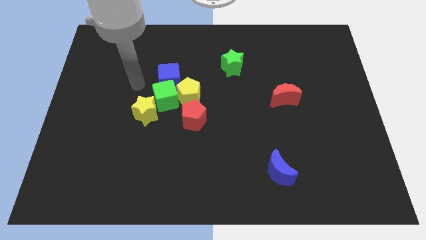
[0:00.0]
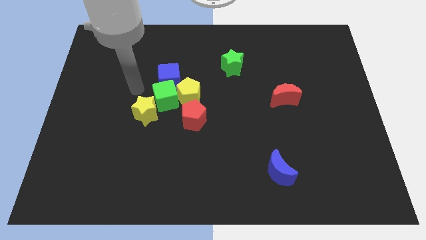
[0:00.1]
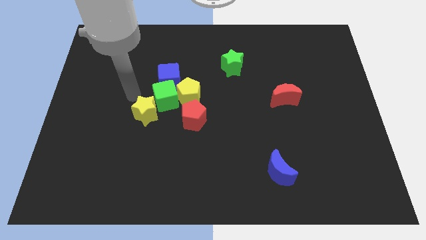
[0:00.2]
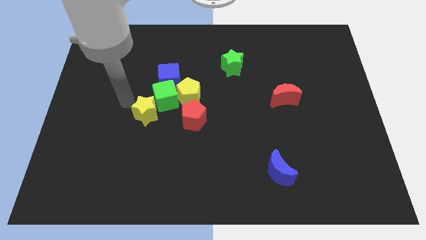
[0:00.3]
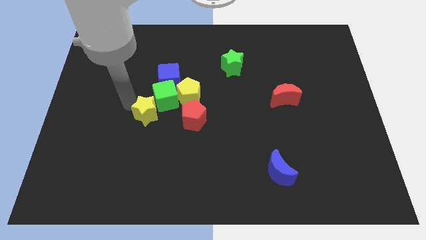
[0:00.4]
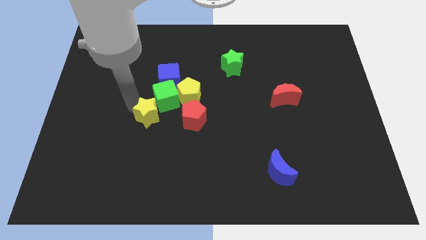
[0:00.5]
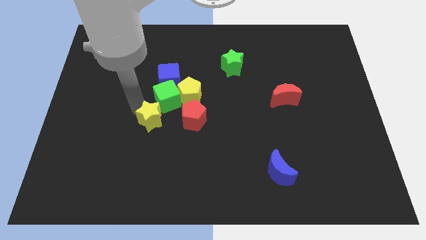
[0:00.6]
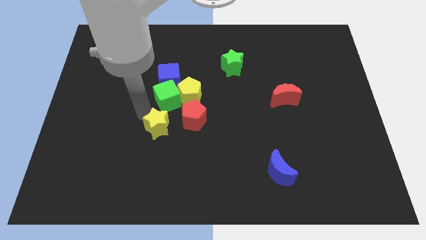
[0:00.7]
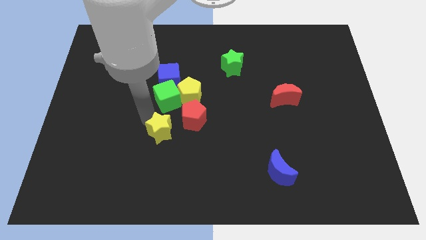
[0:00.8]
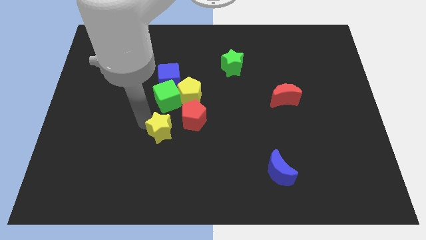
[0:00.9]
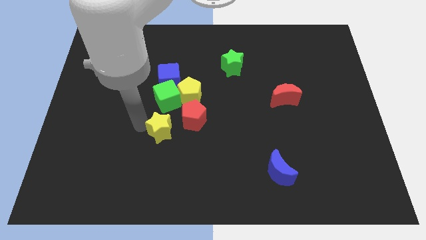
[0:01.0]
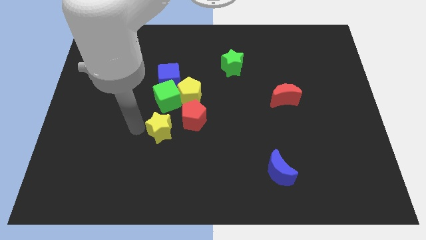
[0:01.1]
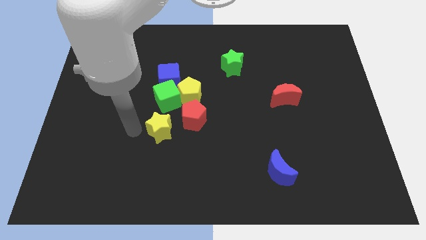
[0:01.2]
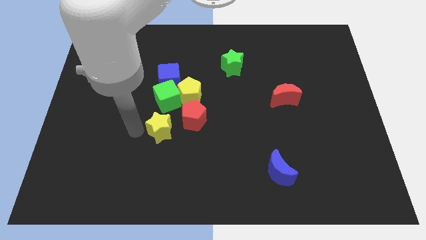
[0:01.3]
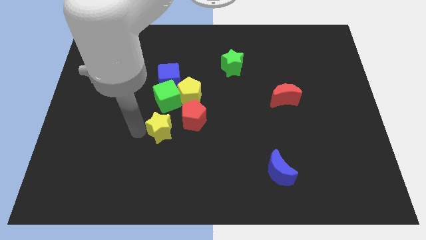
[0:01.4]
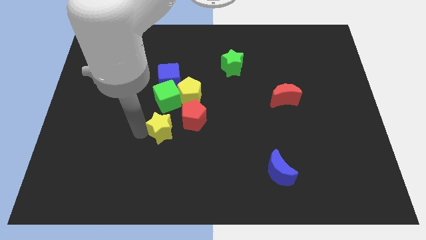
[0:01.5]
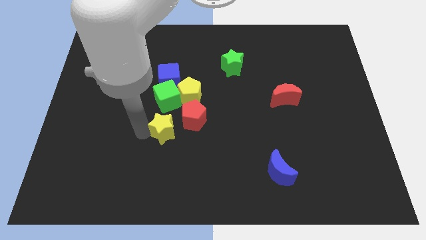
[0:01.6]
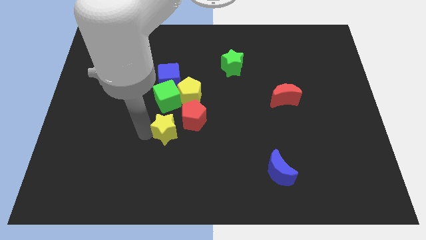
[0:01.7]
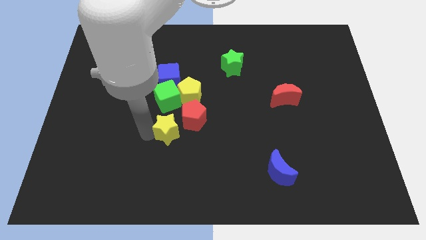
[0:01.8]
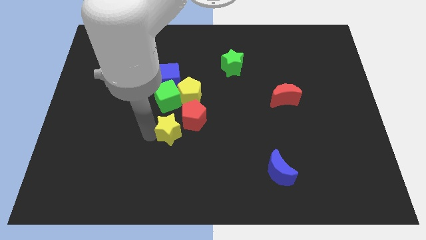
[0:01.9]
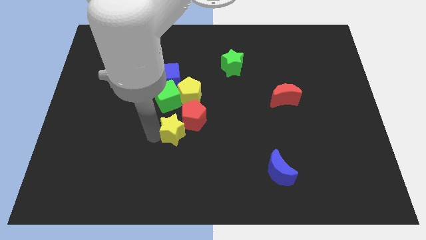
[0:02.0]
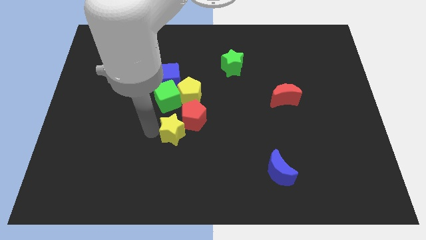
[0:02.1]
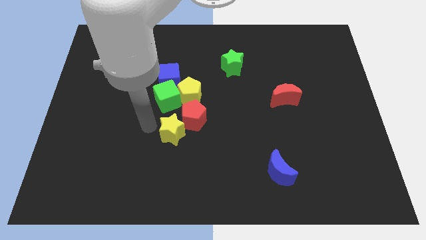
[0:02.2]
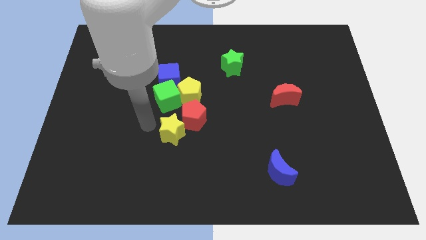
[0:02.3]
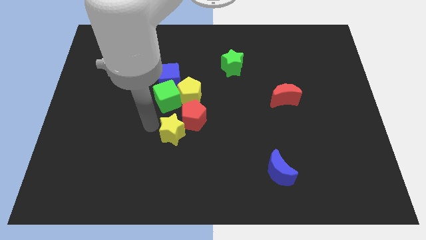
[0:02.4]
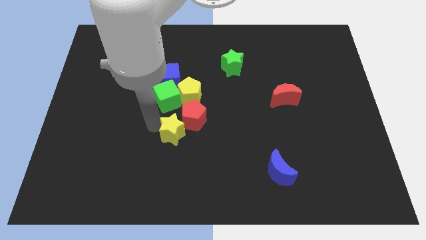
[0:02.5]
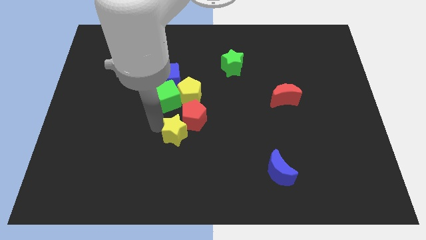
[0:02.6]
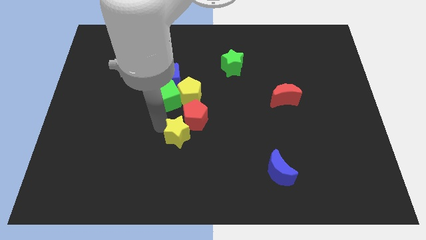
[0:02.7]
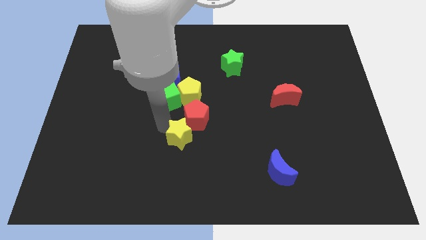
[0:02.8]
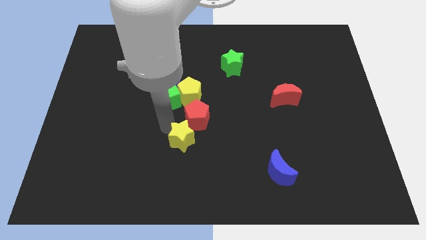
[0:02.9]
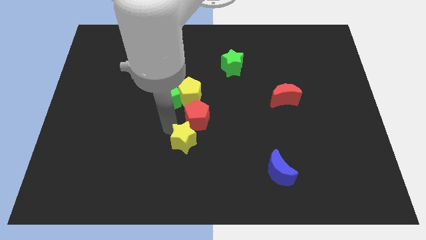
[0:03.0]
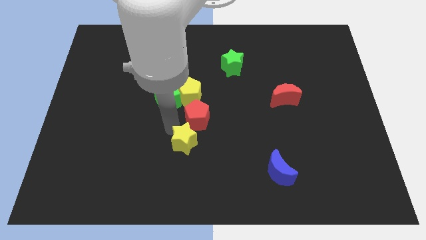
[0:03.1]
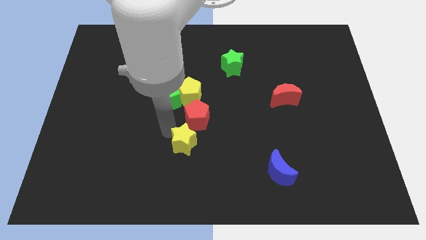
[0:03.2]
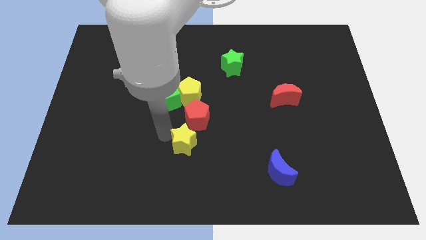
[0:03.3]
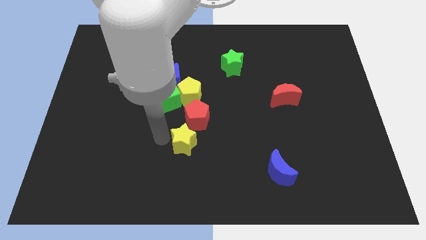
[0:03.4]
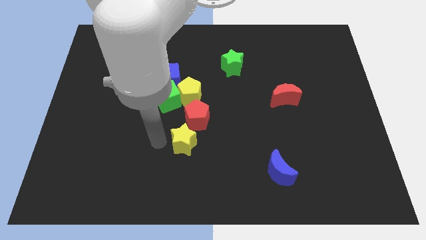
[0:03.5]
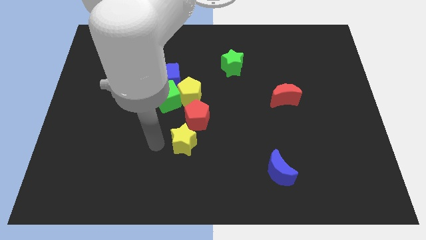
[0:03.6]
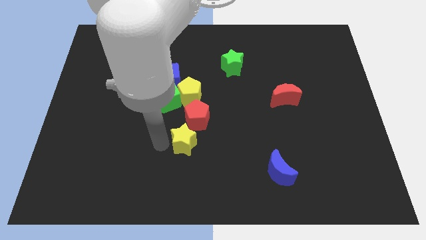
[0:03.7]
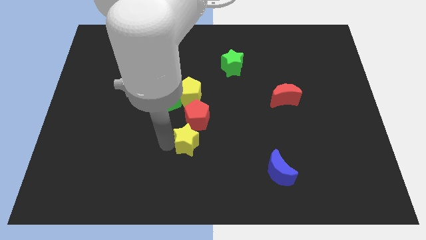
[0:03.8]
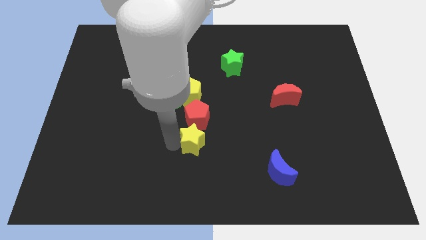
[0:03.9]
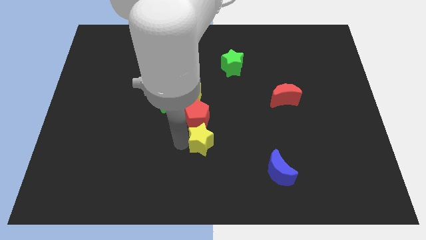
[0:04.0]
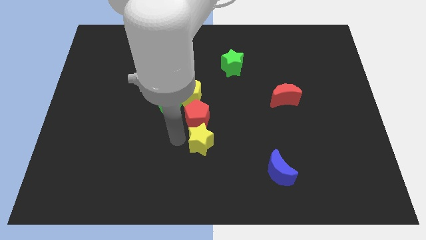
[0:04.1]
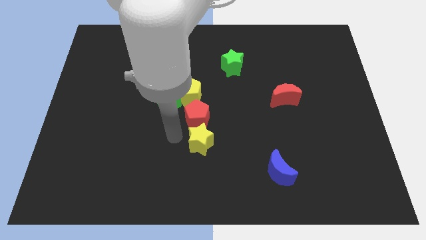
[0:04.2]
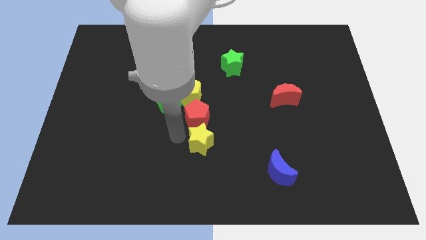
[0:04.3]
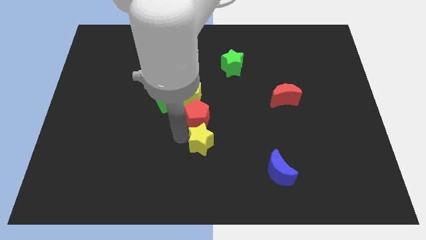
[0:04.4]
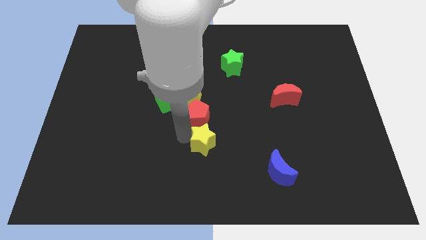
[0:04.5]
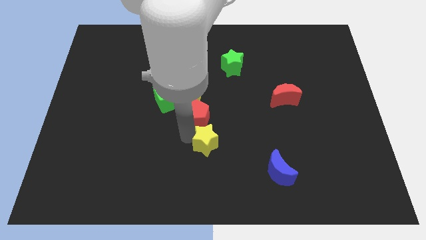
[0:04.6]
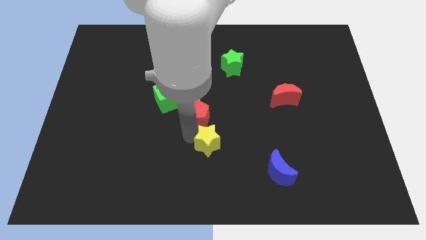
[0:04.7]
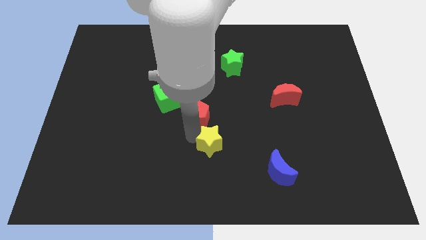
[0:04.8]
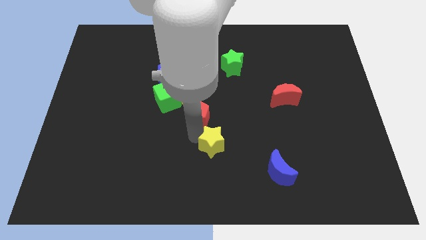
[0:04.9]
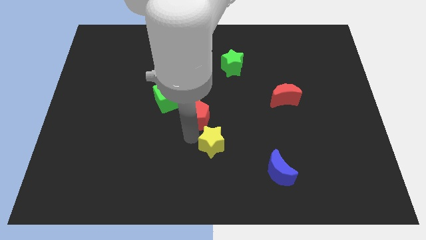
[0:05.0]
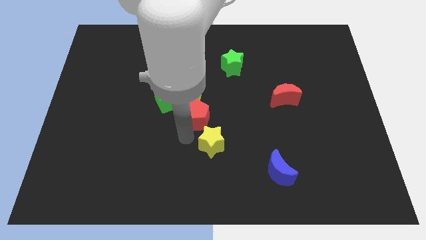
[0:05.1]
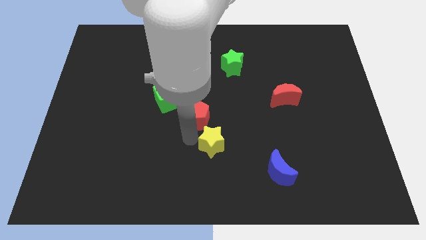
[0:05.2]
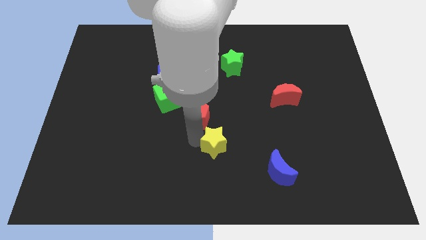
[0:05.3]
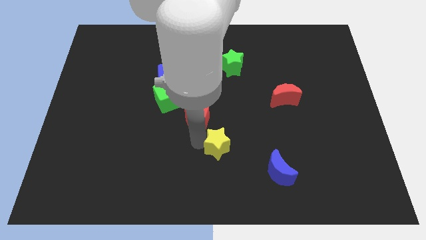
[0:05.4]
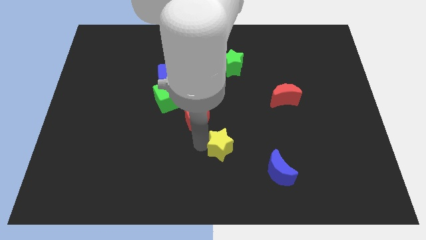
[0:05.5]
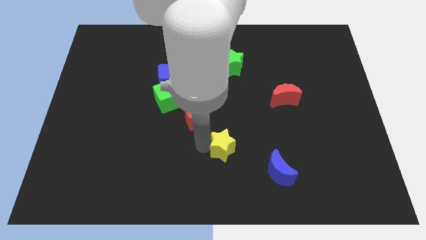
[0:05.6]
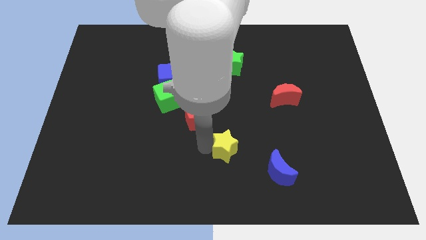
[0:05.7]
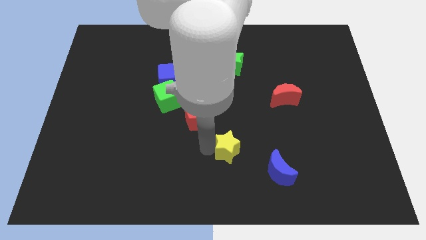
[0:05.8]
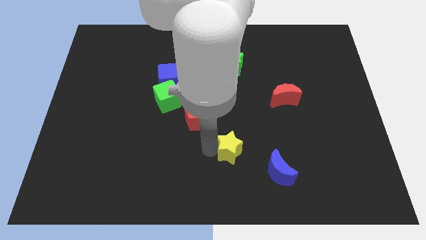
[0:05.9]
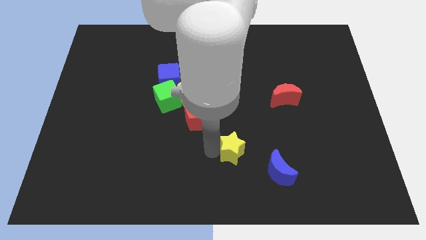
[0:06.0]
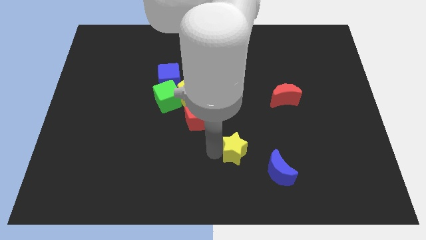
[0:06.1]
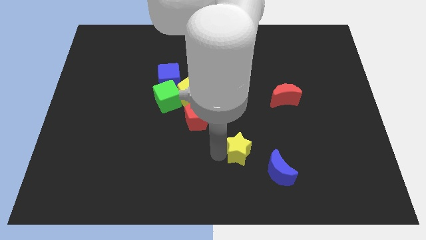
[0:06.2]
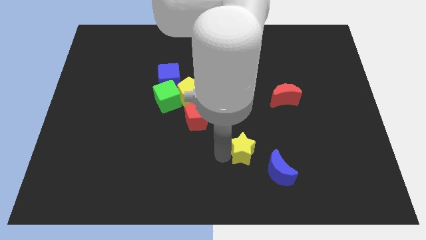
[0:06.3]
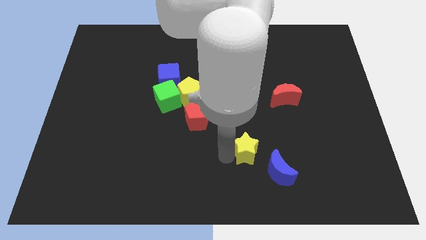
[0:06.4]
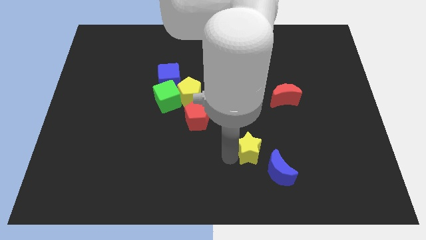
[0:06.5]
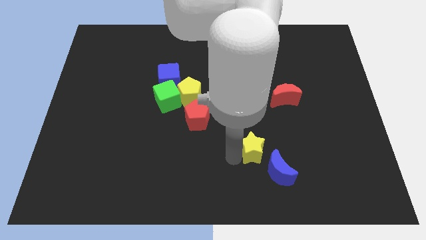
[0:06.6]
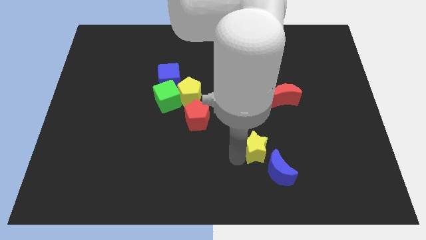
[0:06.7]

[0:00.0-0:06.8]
push the yellow star right

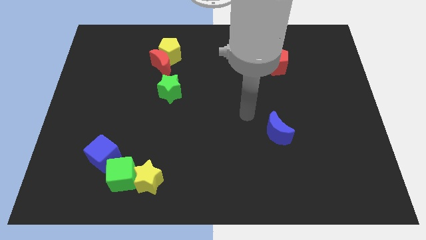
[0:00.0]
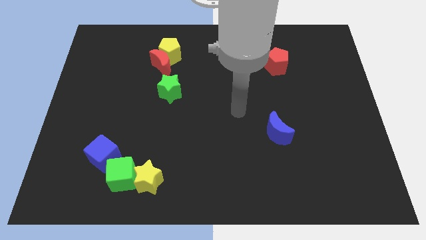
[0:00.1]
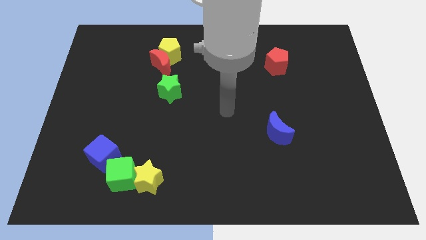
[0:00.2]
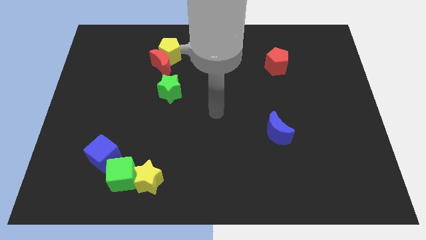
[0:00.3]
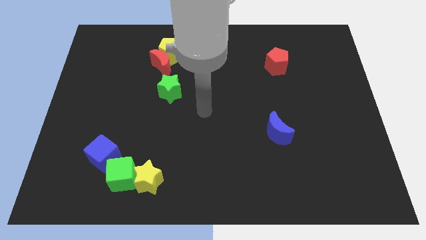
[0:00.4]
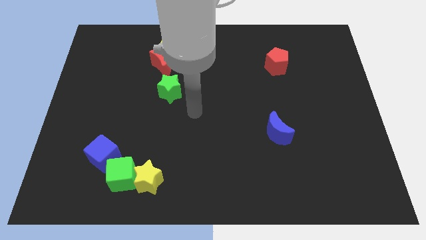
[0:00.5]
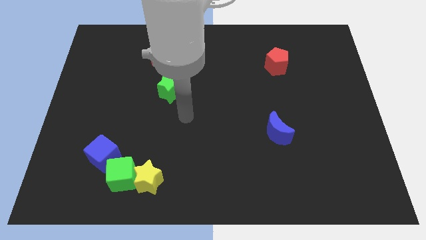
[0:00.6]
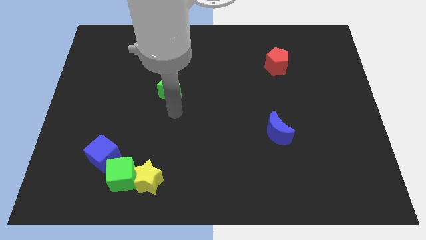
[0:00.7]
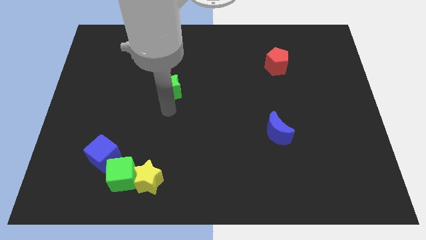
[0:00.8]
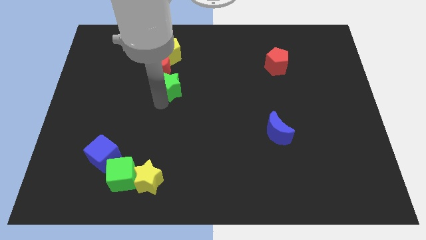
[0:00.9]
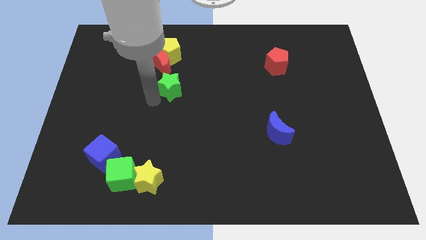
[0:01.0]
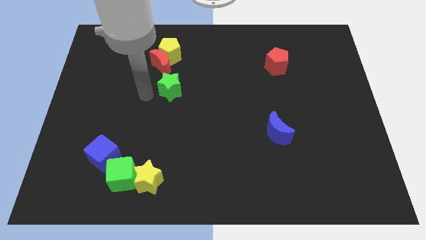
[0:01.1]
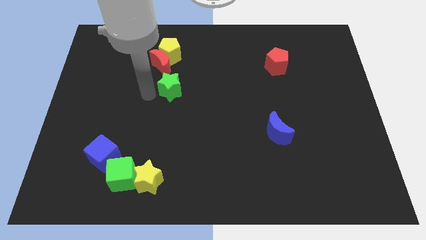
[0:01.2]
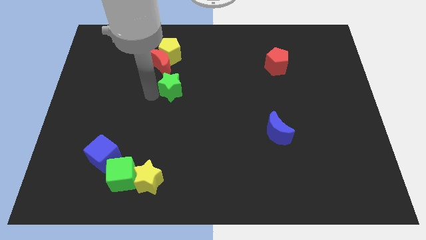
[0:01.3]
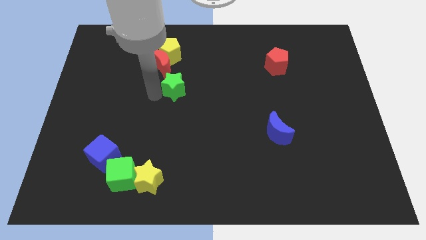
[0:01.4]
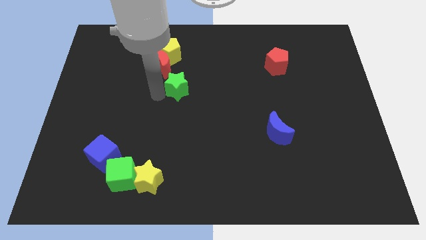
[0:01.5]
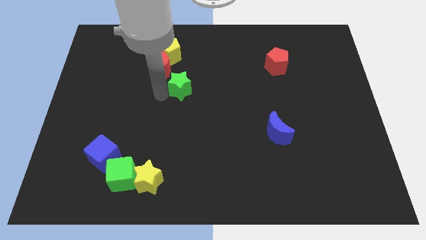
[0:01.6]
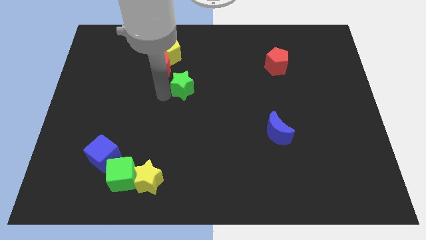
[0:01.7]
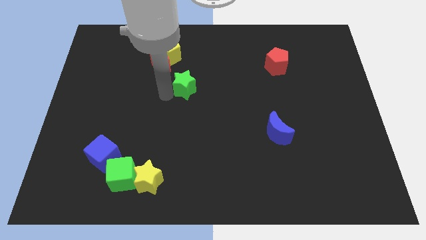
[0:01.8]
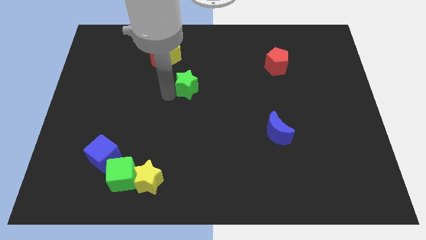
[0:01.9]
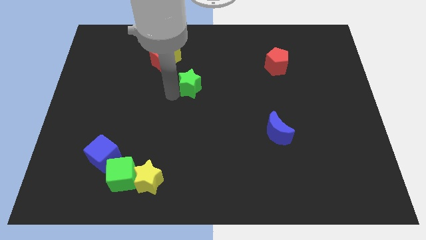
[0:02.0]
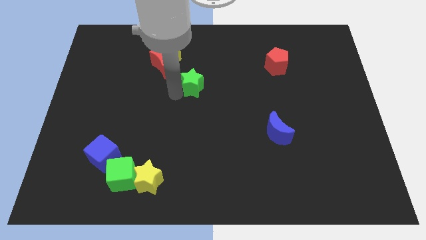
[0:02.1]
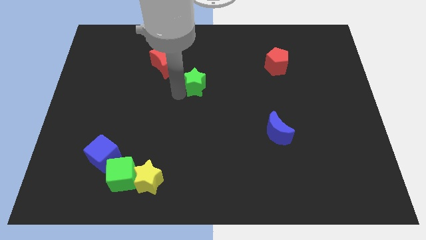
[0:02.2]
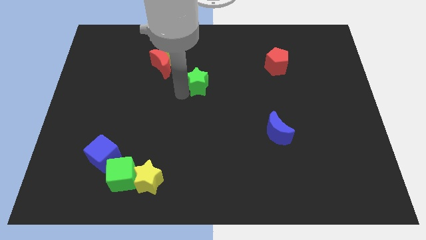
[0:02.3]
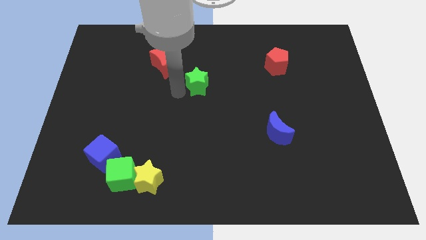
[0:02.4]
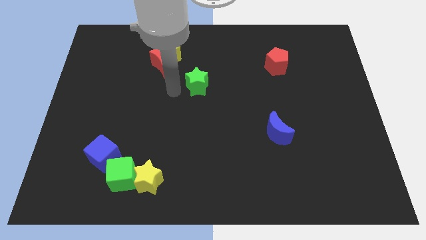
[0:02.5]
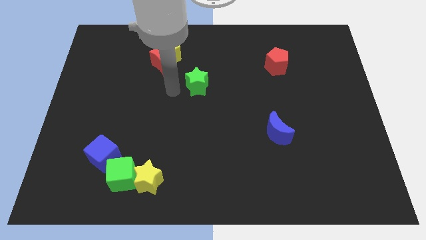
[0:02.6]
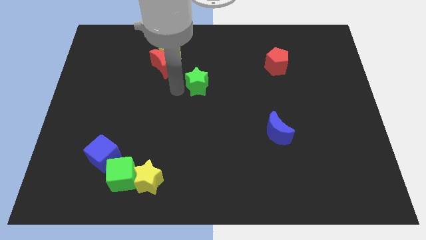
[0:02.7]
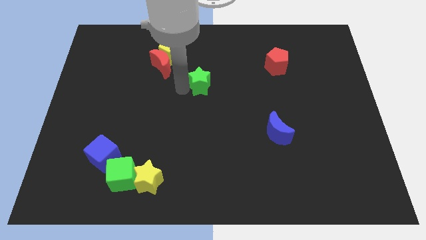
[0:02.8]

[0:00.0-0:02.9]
slightly push the green star to the right
